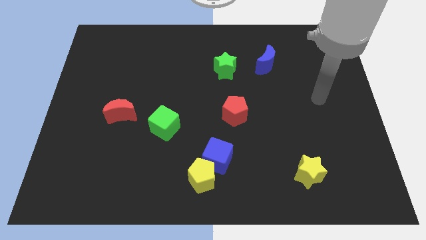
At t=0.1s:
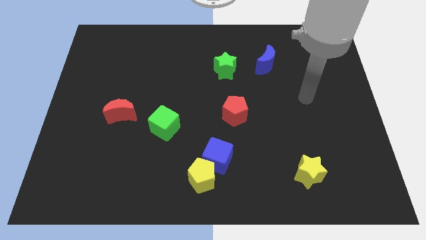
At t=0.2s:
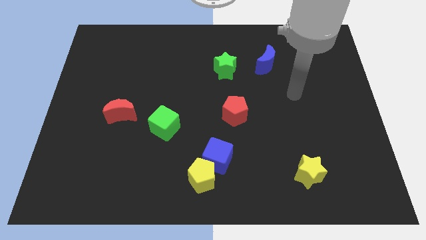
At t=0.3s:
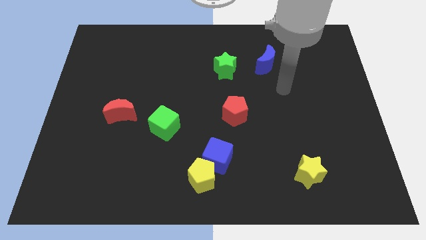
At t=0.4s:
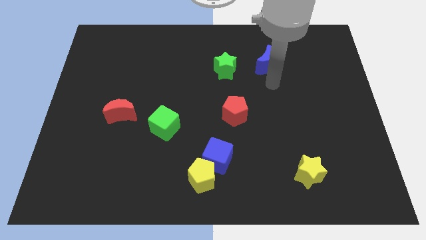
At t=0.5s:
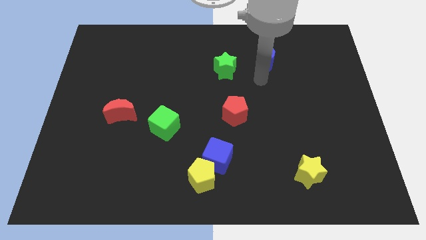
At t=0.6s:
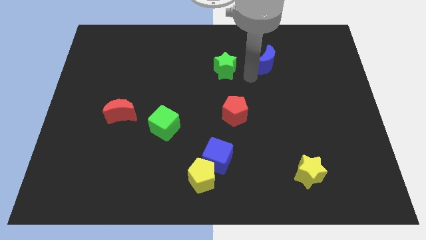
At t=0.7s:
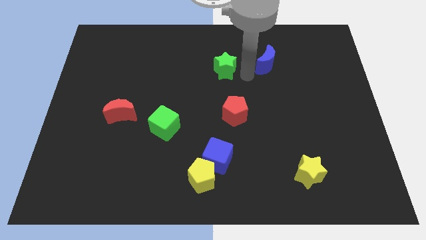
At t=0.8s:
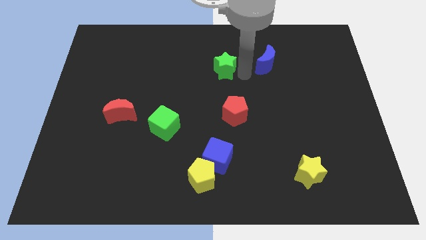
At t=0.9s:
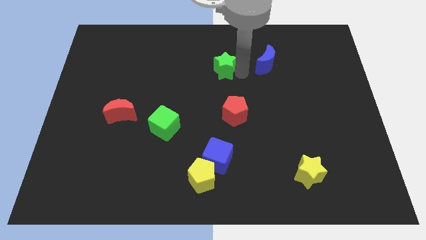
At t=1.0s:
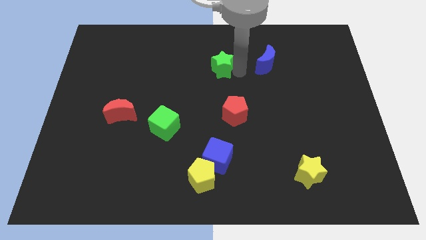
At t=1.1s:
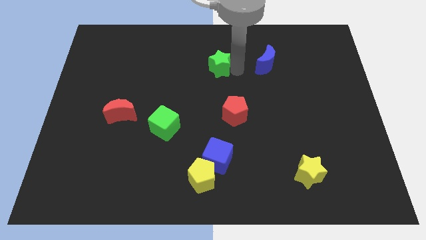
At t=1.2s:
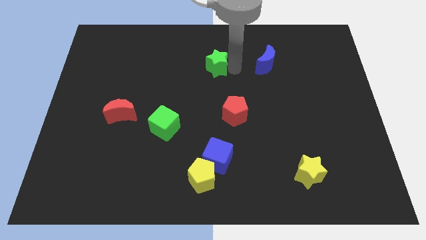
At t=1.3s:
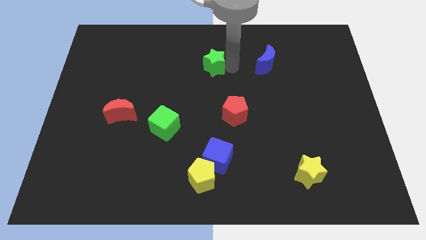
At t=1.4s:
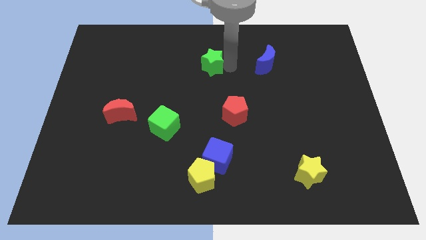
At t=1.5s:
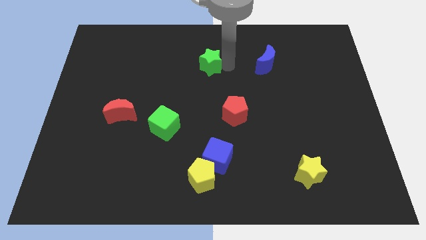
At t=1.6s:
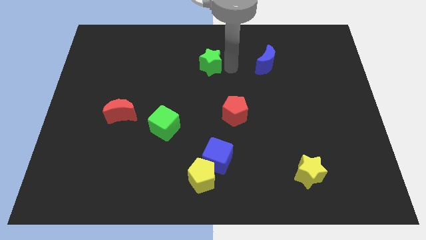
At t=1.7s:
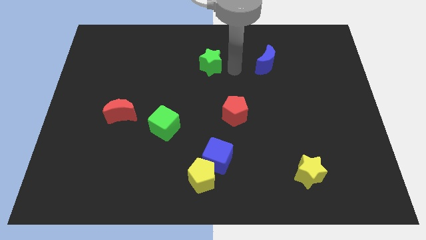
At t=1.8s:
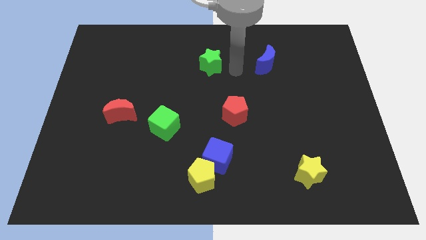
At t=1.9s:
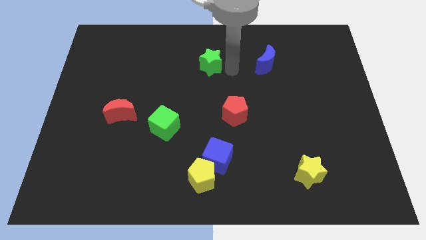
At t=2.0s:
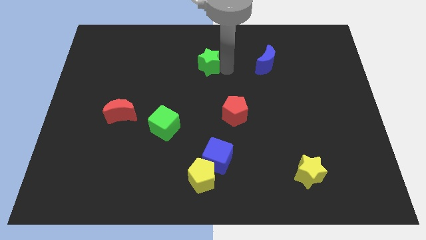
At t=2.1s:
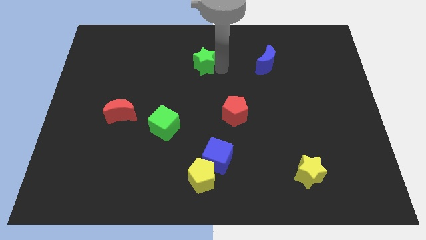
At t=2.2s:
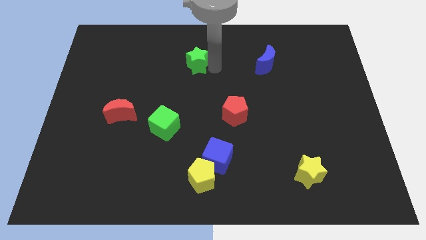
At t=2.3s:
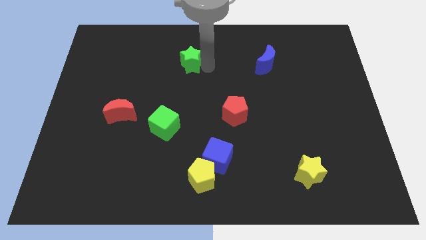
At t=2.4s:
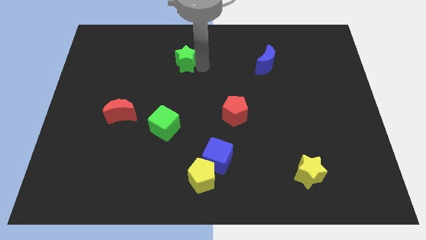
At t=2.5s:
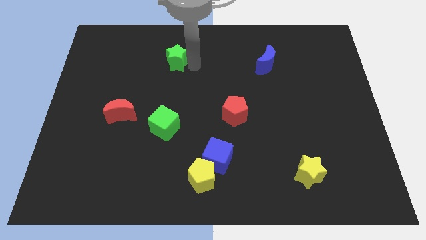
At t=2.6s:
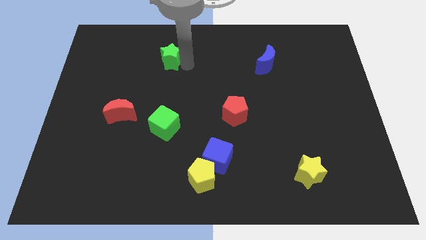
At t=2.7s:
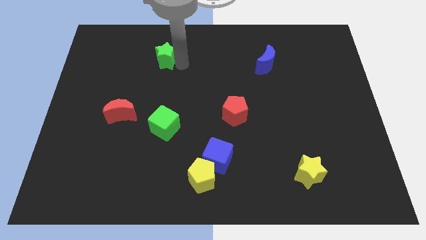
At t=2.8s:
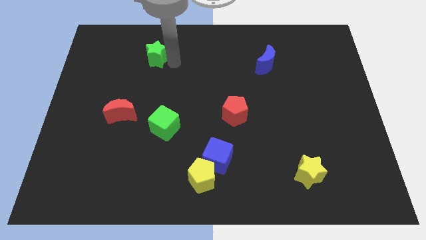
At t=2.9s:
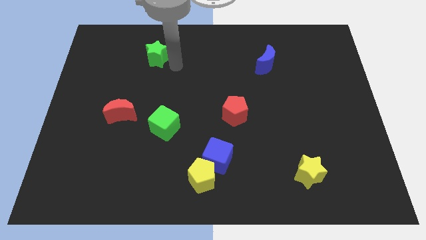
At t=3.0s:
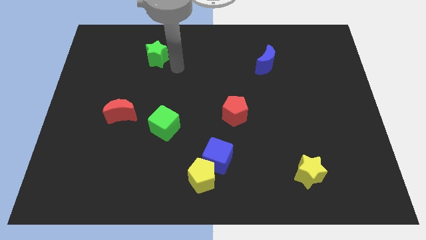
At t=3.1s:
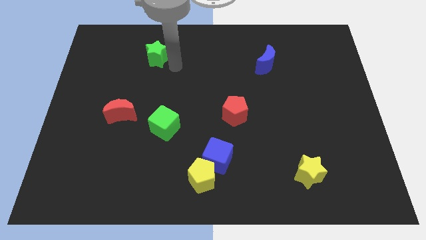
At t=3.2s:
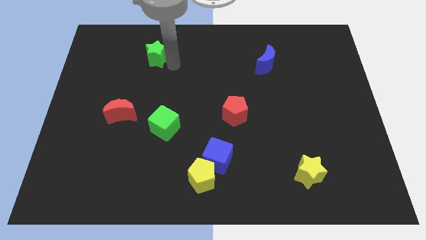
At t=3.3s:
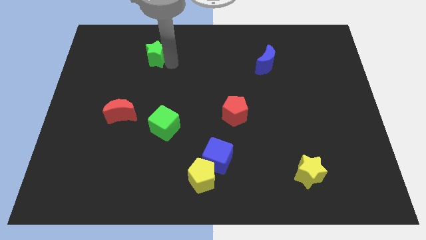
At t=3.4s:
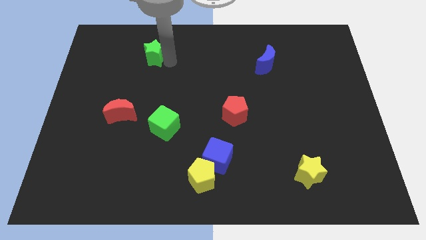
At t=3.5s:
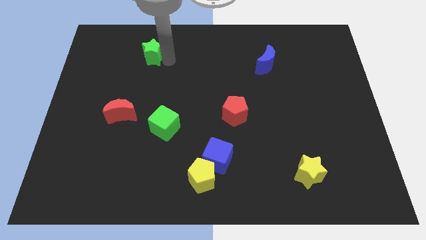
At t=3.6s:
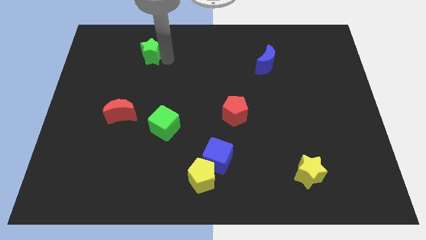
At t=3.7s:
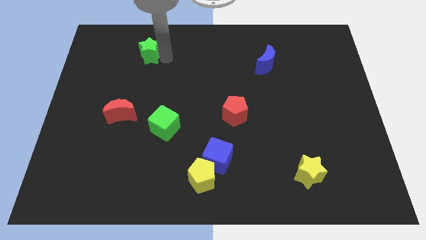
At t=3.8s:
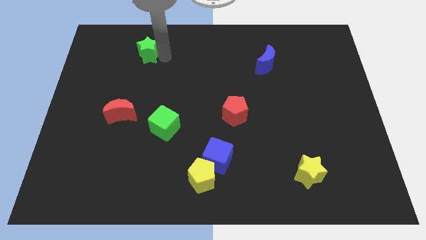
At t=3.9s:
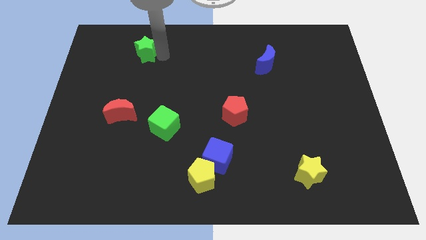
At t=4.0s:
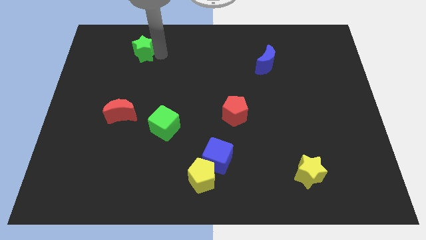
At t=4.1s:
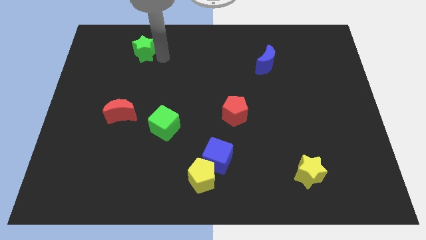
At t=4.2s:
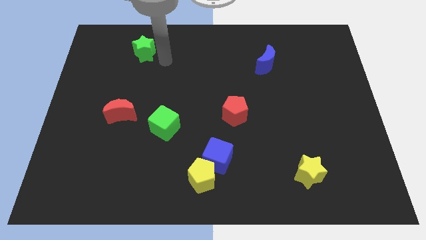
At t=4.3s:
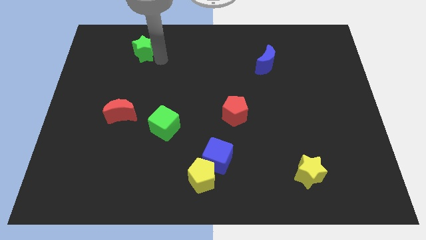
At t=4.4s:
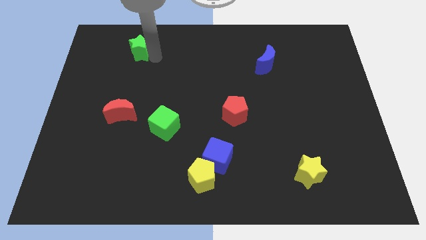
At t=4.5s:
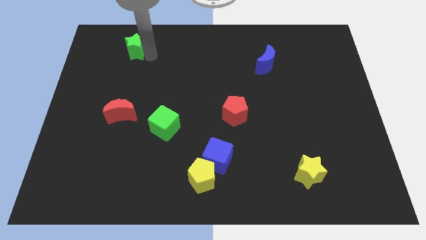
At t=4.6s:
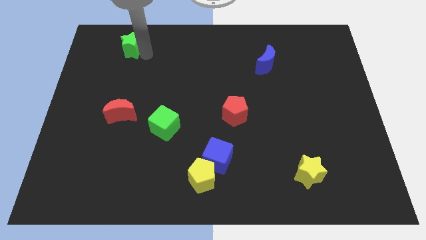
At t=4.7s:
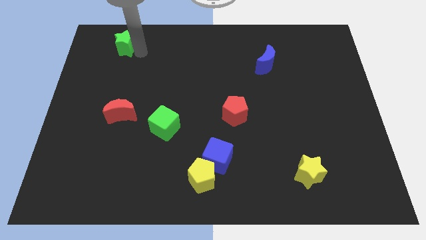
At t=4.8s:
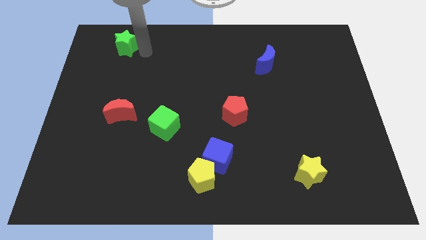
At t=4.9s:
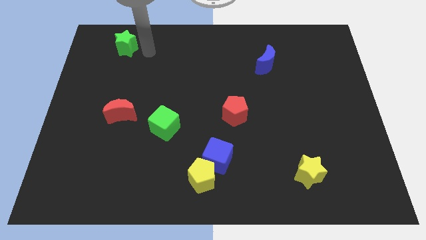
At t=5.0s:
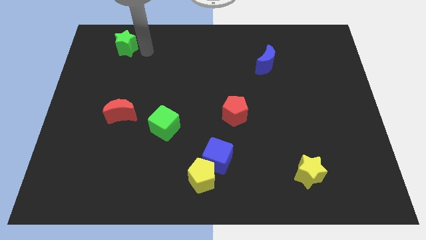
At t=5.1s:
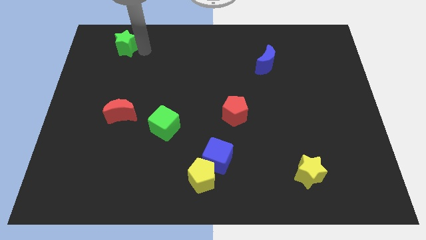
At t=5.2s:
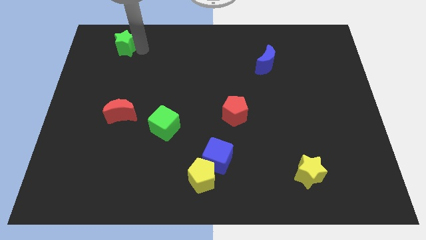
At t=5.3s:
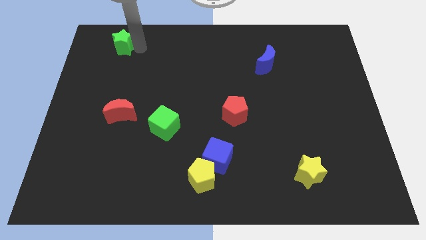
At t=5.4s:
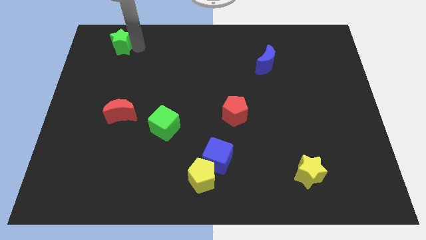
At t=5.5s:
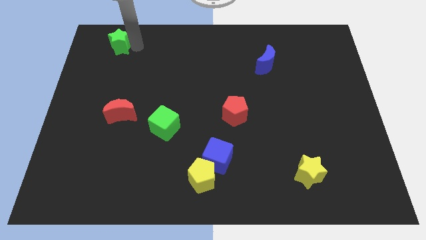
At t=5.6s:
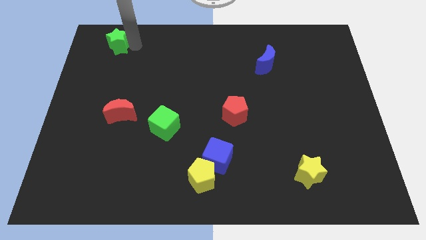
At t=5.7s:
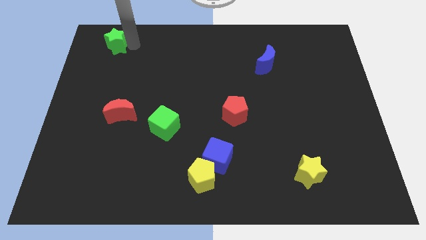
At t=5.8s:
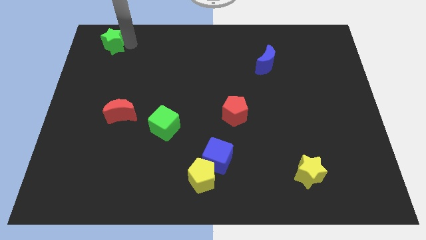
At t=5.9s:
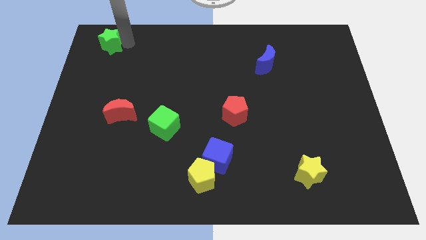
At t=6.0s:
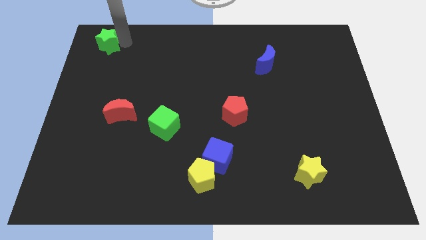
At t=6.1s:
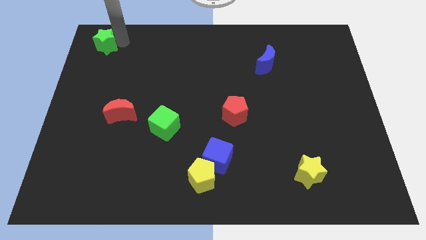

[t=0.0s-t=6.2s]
push the green star to the upper left corner
